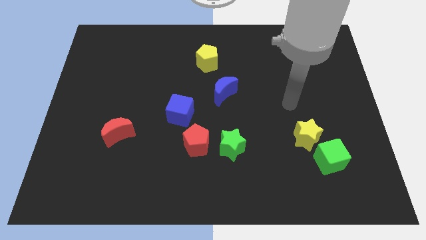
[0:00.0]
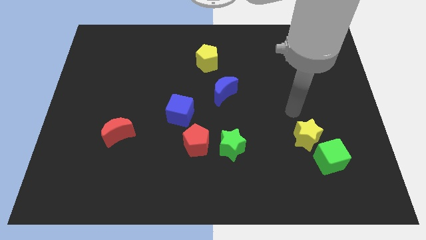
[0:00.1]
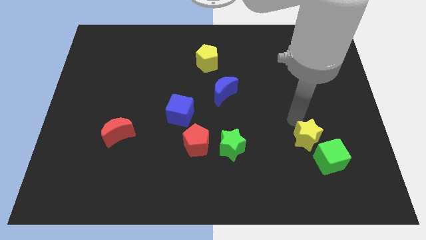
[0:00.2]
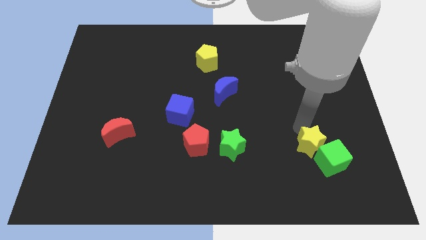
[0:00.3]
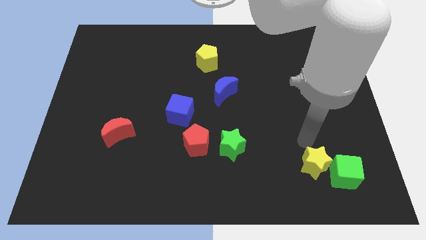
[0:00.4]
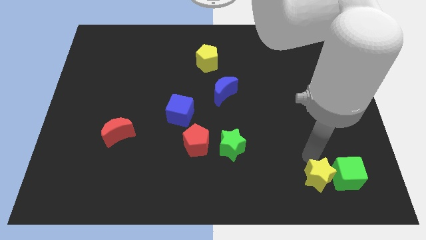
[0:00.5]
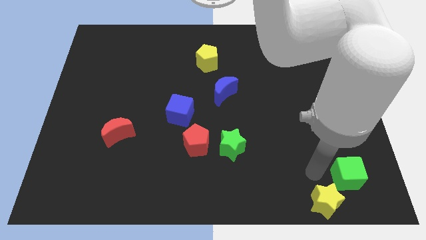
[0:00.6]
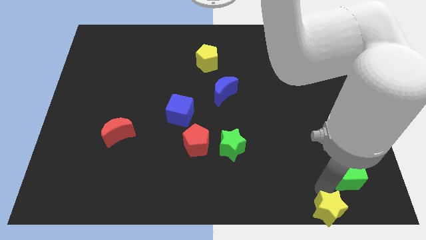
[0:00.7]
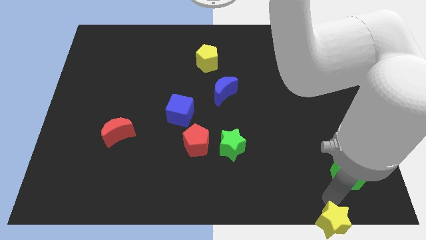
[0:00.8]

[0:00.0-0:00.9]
pull the green cube apart from the yellow star

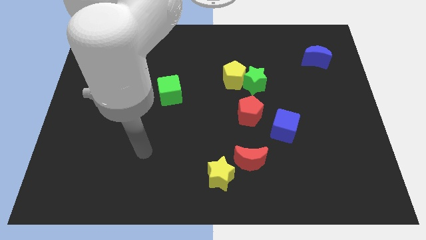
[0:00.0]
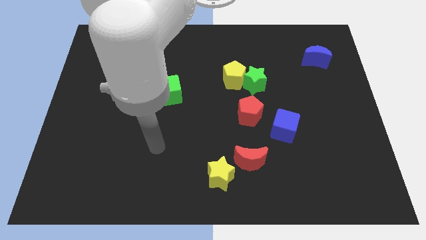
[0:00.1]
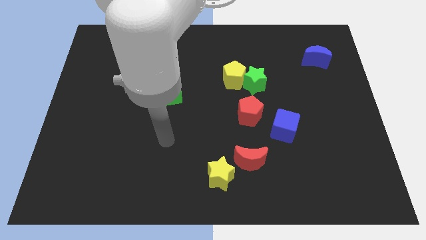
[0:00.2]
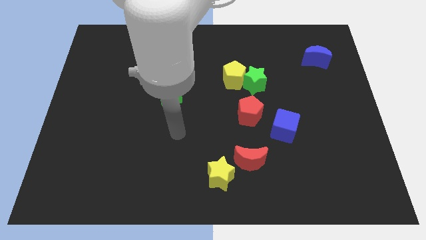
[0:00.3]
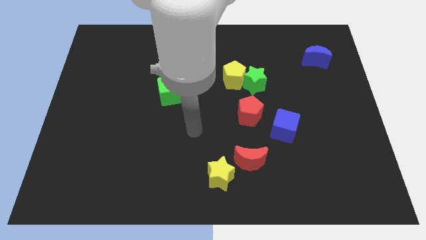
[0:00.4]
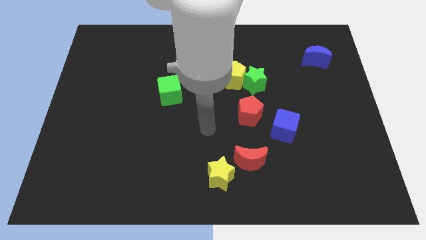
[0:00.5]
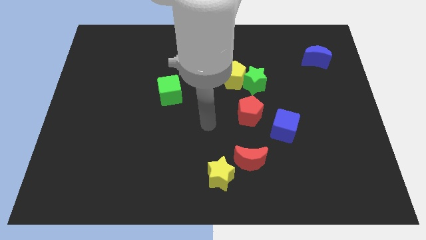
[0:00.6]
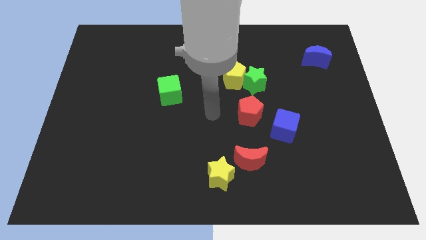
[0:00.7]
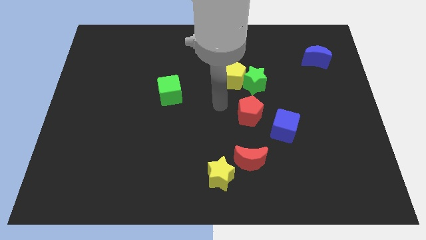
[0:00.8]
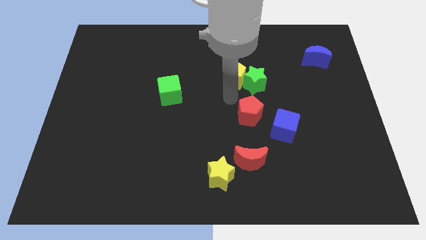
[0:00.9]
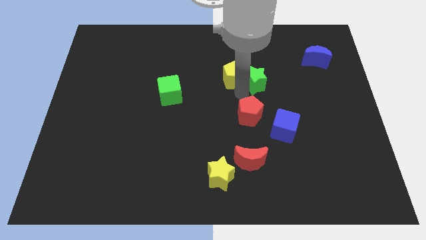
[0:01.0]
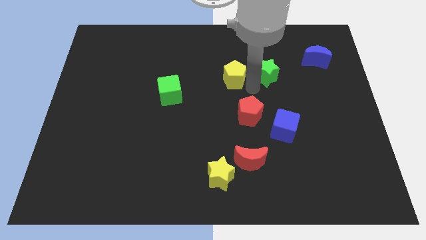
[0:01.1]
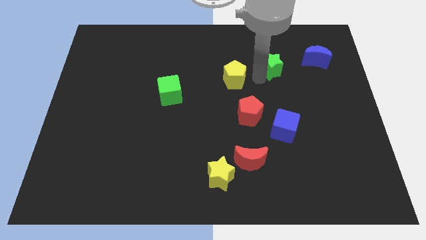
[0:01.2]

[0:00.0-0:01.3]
move the yellow pentagon away from the green star

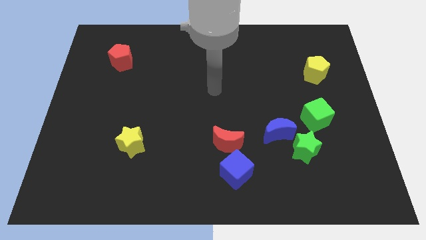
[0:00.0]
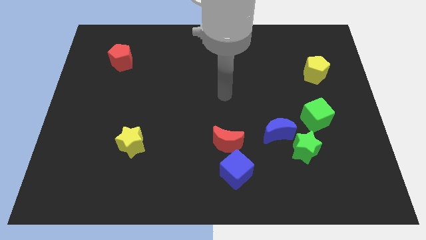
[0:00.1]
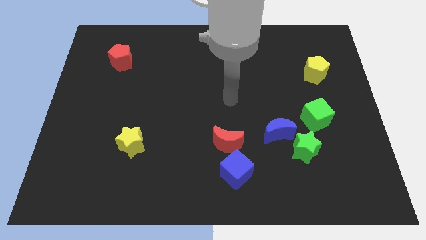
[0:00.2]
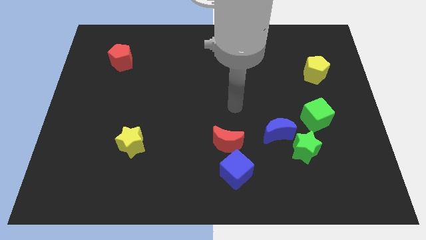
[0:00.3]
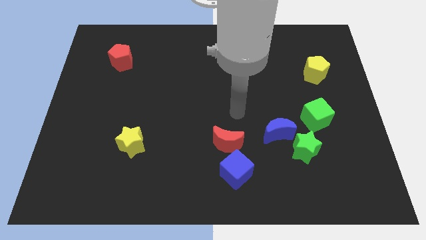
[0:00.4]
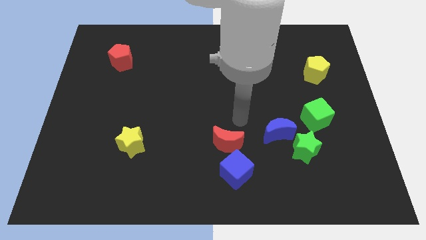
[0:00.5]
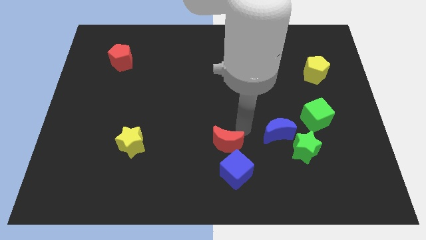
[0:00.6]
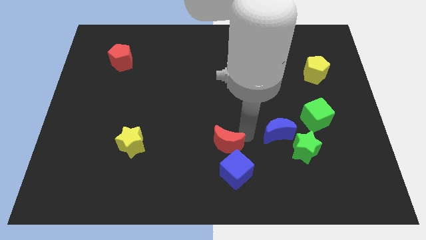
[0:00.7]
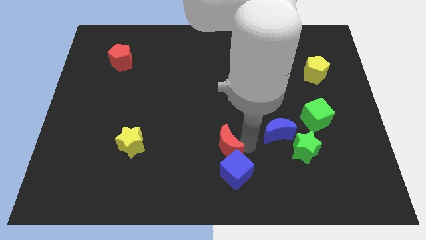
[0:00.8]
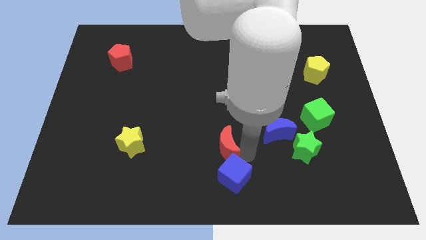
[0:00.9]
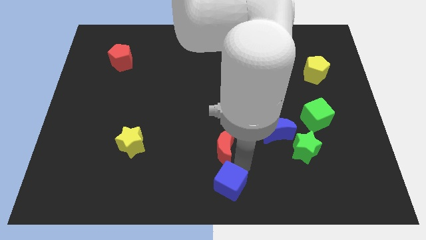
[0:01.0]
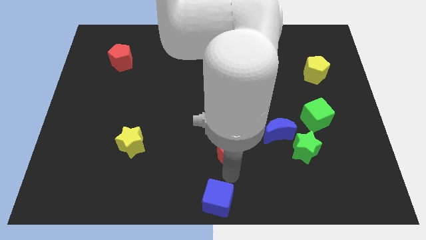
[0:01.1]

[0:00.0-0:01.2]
separate the red moon from the blue cube

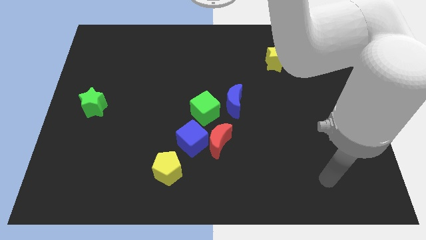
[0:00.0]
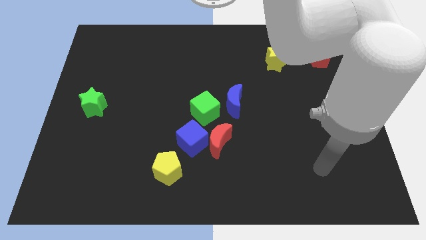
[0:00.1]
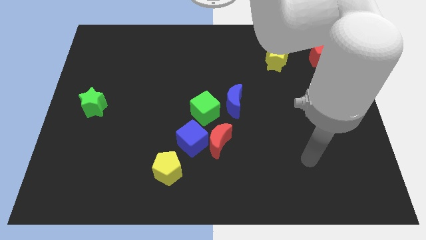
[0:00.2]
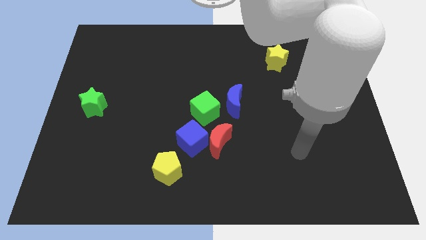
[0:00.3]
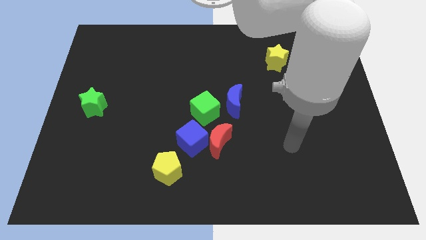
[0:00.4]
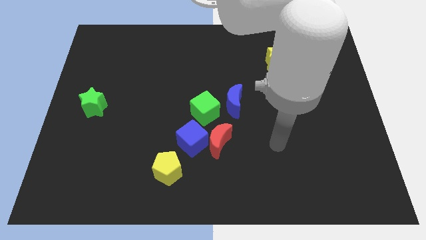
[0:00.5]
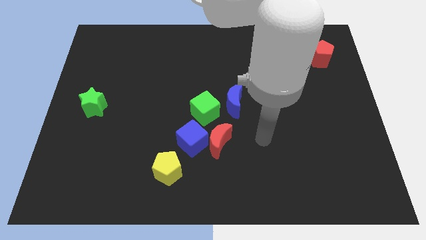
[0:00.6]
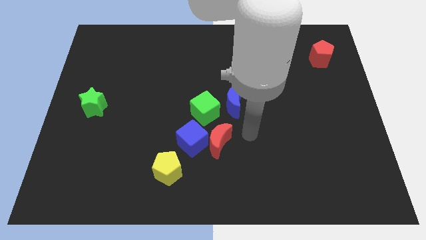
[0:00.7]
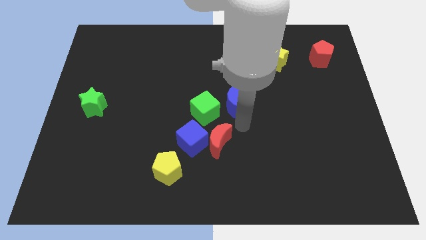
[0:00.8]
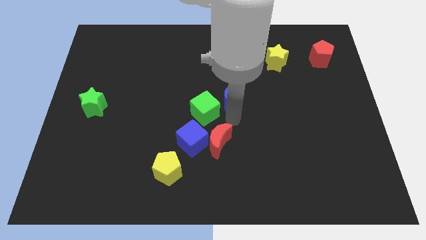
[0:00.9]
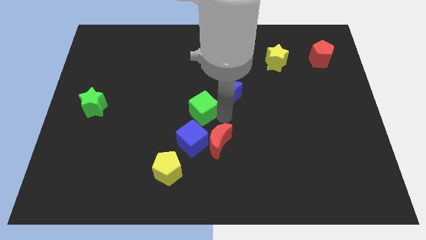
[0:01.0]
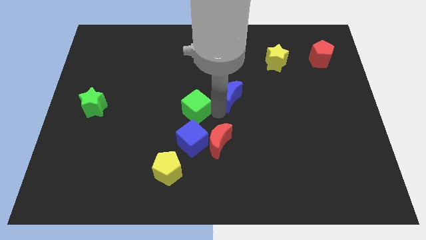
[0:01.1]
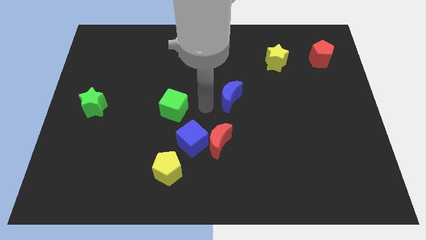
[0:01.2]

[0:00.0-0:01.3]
separate the blue moon from the green cube

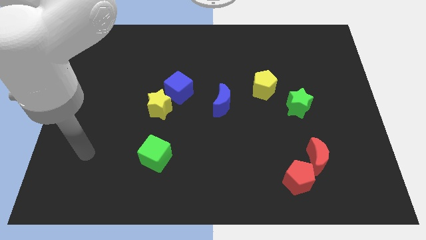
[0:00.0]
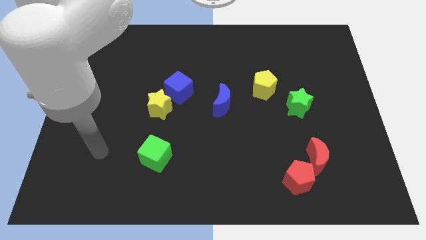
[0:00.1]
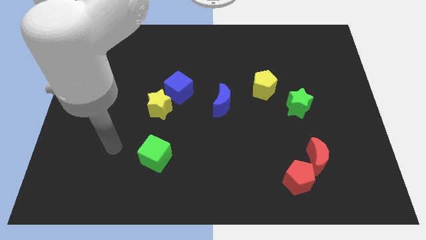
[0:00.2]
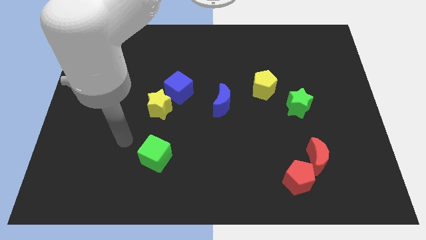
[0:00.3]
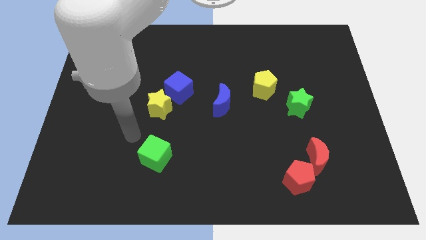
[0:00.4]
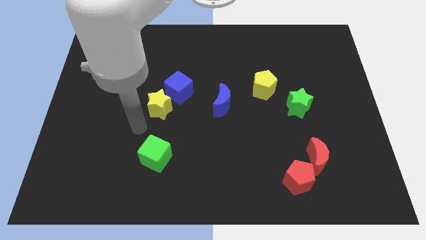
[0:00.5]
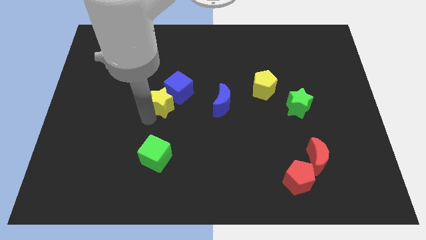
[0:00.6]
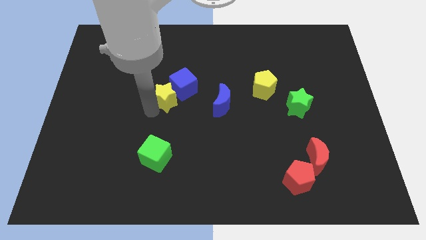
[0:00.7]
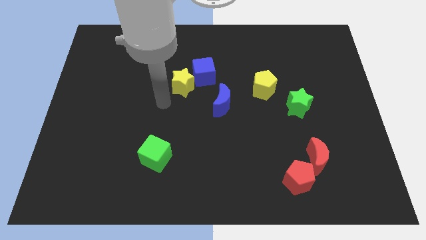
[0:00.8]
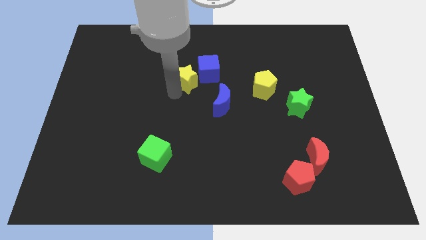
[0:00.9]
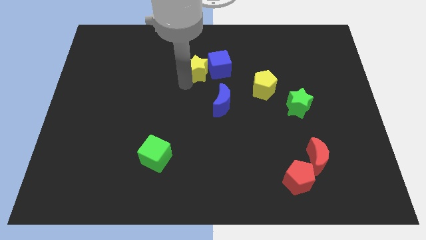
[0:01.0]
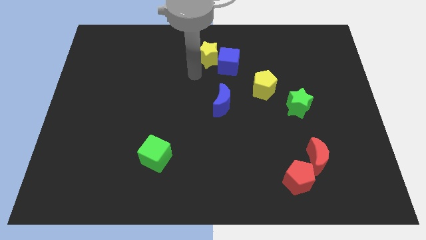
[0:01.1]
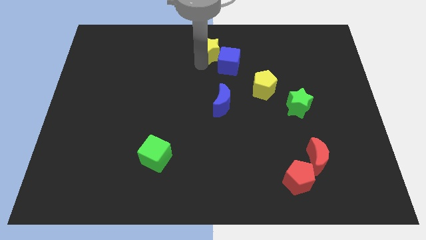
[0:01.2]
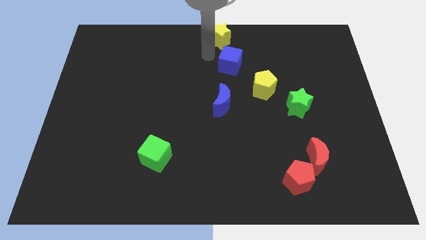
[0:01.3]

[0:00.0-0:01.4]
pull the blue cube apart from the yellow star

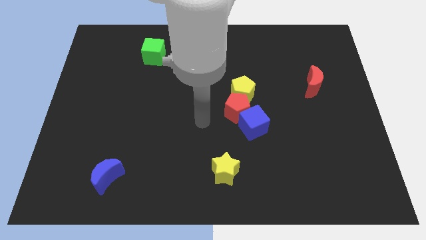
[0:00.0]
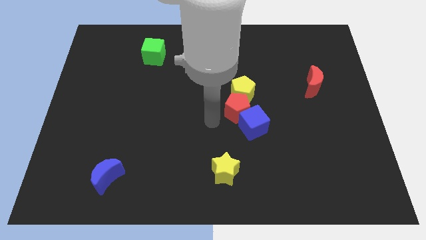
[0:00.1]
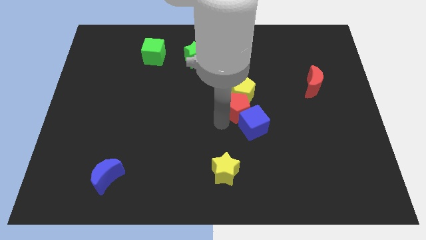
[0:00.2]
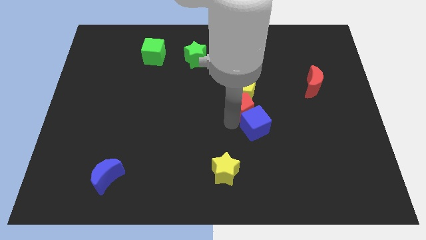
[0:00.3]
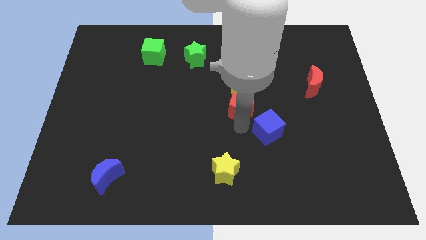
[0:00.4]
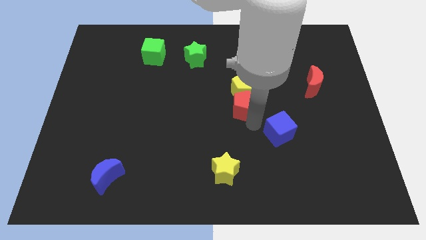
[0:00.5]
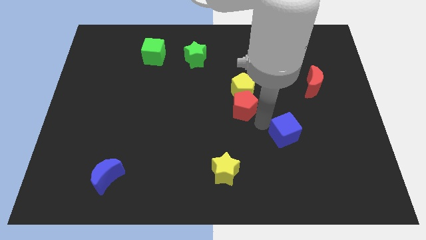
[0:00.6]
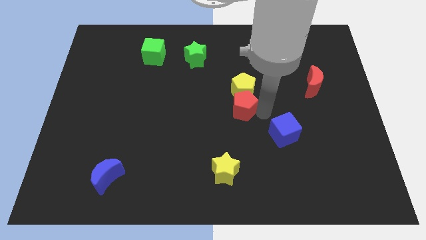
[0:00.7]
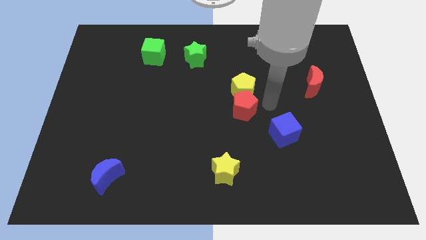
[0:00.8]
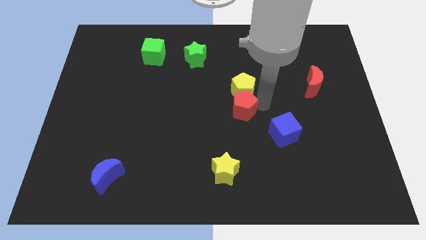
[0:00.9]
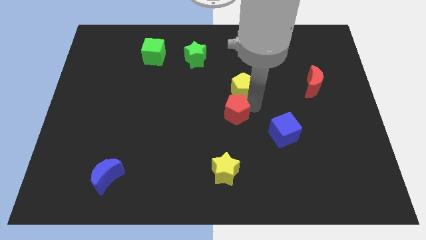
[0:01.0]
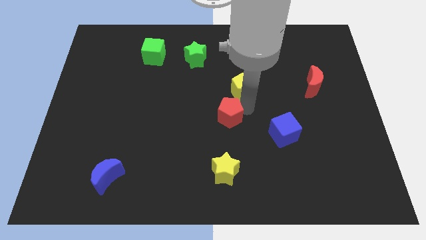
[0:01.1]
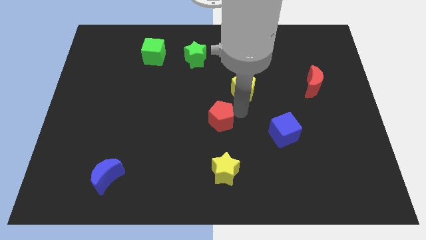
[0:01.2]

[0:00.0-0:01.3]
move the red pentagon away from the yellow pentagon and blue cube

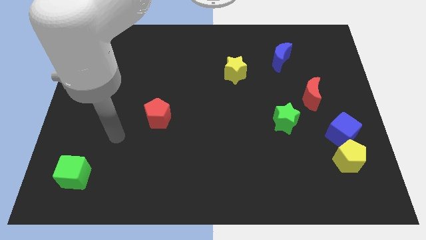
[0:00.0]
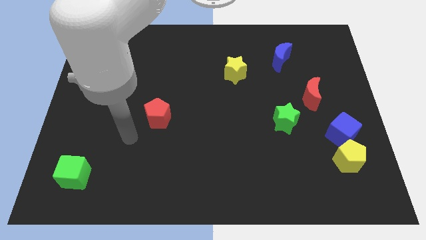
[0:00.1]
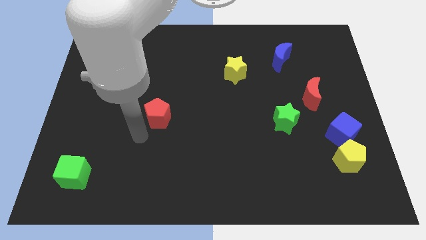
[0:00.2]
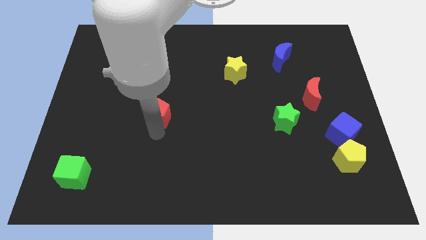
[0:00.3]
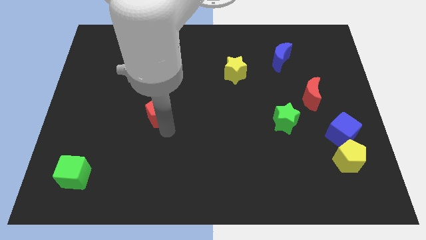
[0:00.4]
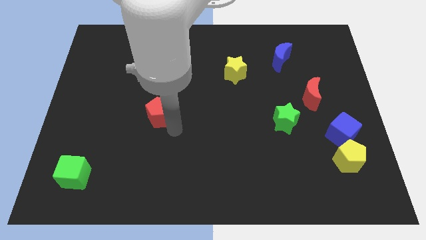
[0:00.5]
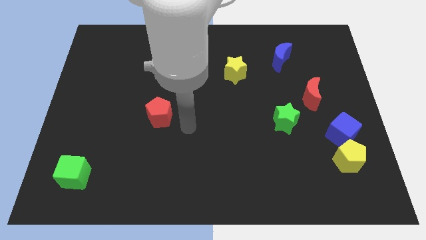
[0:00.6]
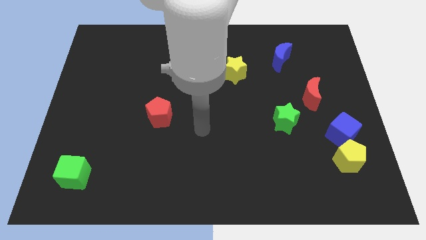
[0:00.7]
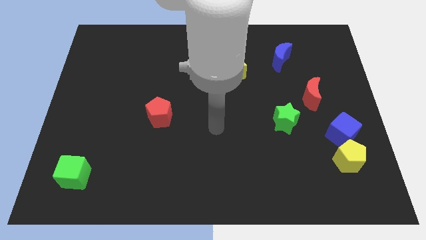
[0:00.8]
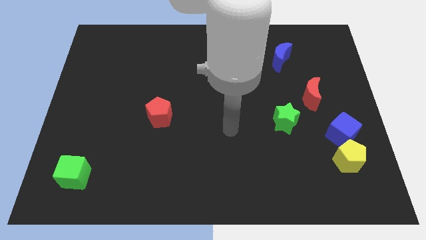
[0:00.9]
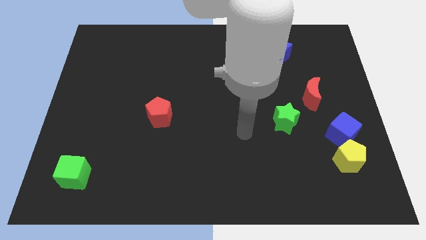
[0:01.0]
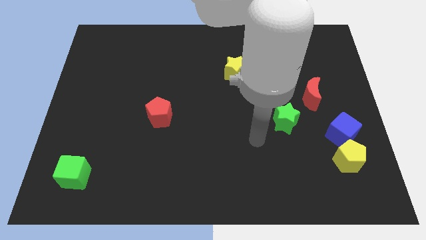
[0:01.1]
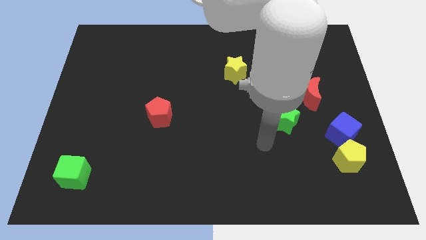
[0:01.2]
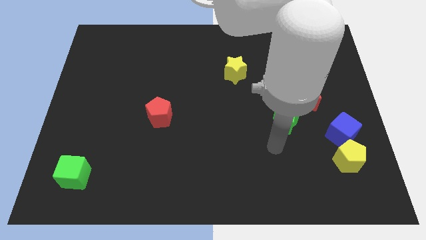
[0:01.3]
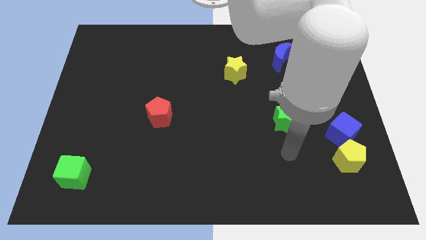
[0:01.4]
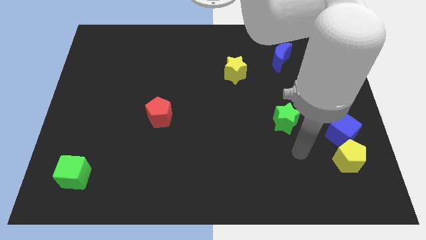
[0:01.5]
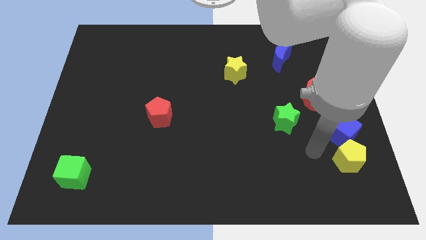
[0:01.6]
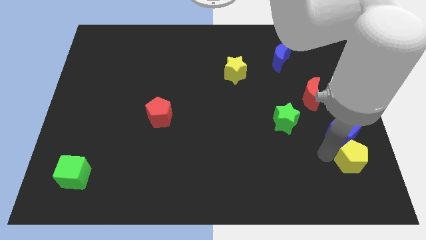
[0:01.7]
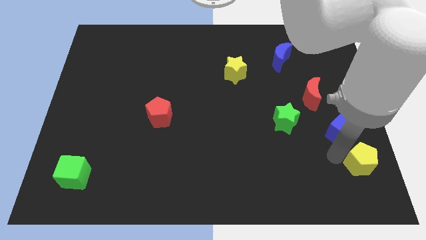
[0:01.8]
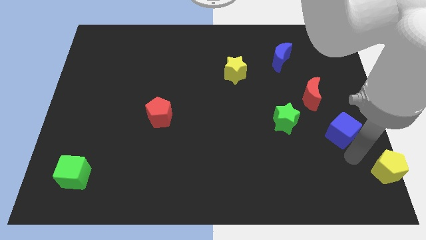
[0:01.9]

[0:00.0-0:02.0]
move the blue cube away from the yellow pentagon
